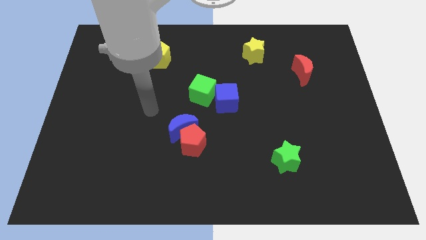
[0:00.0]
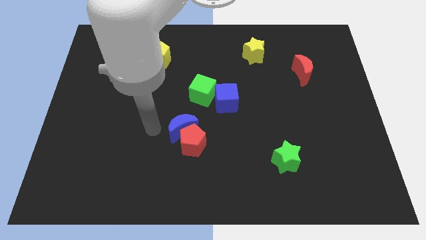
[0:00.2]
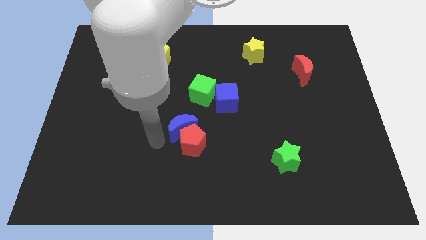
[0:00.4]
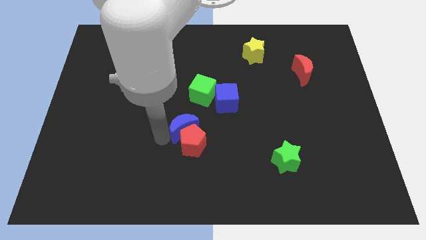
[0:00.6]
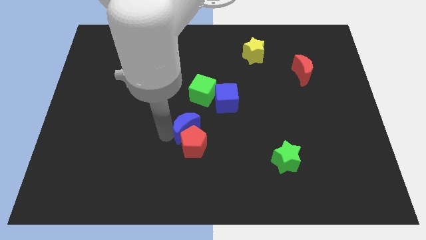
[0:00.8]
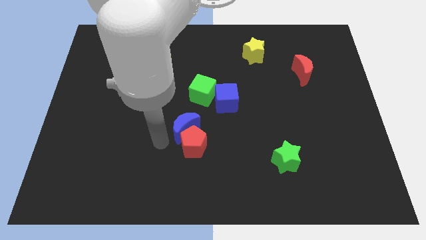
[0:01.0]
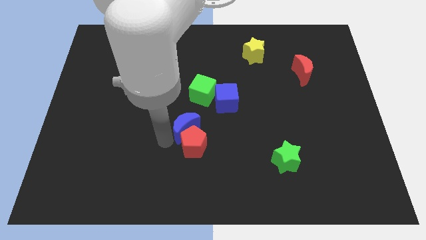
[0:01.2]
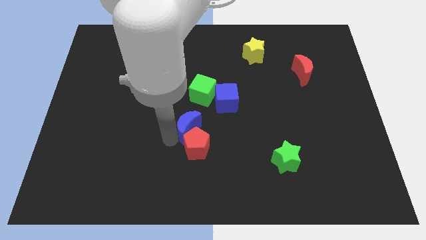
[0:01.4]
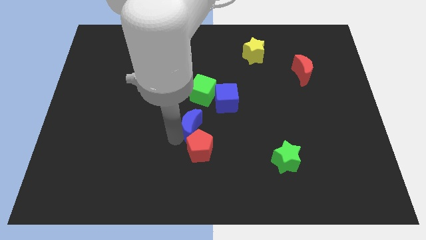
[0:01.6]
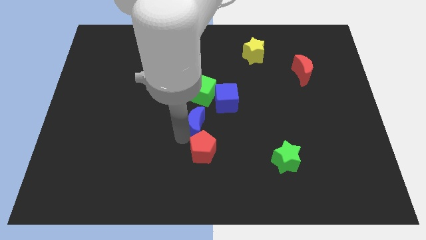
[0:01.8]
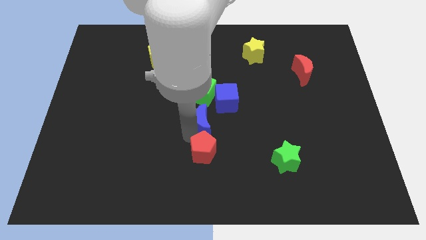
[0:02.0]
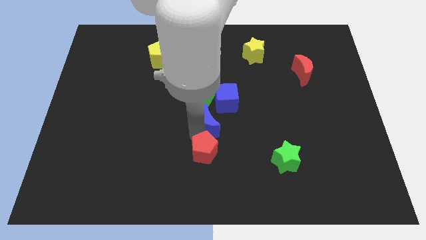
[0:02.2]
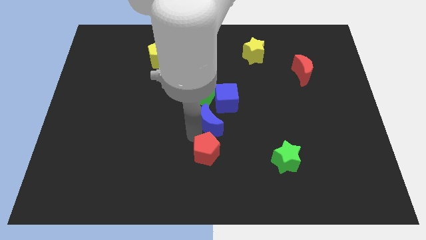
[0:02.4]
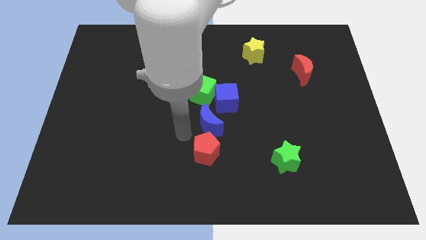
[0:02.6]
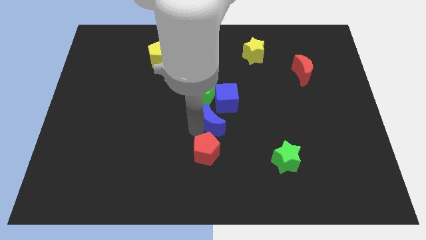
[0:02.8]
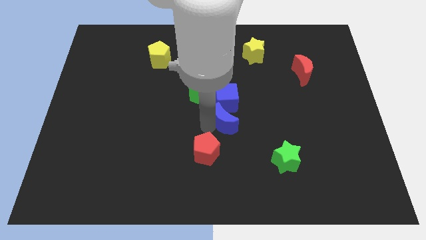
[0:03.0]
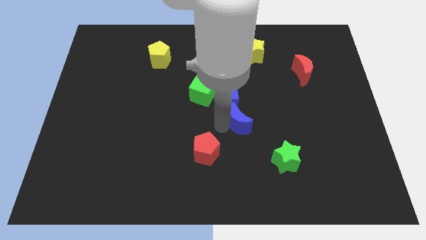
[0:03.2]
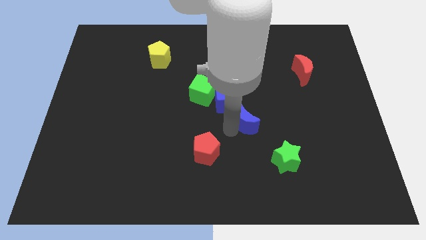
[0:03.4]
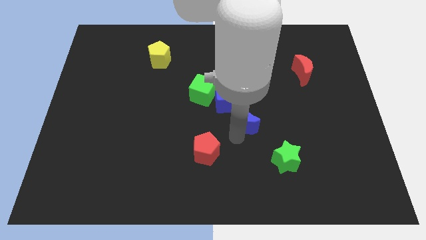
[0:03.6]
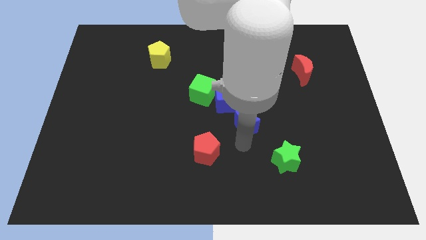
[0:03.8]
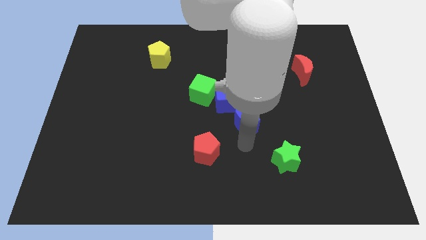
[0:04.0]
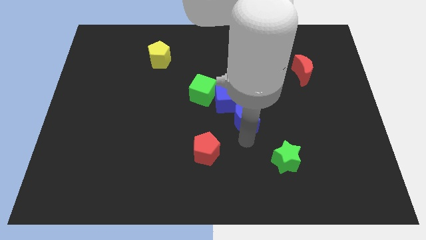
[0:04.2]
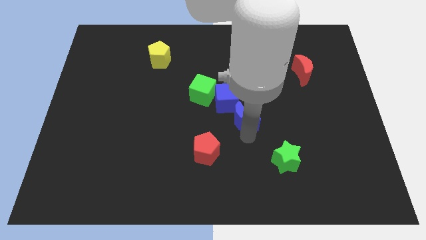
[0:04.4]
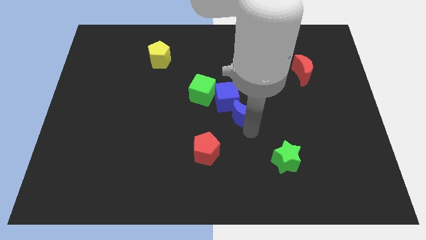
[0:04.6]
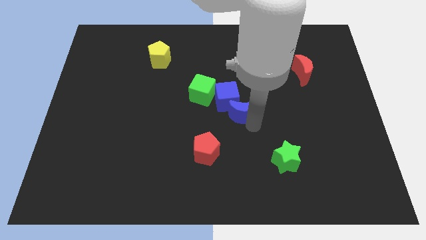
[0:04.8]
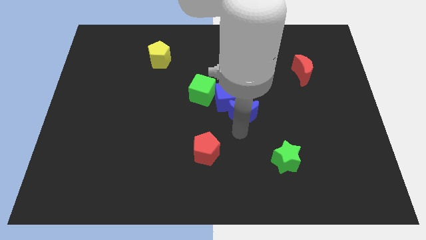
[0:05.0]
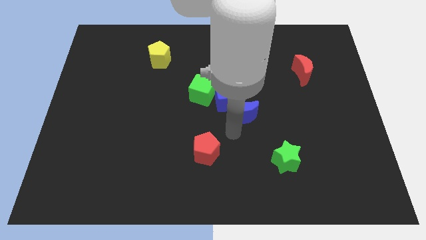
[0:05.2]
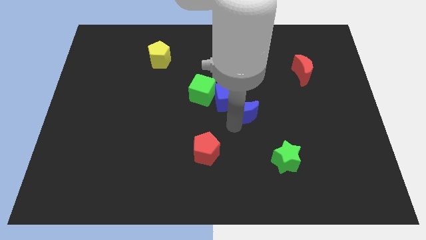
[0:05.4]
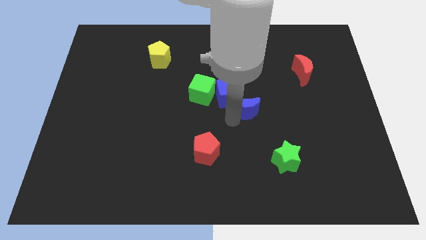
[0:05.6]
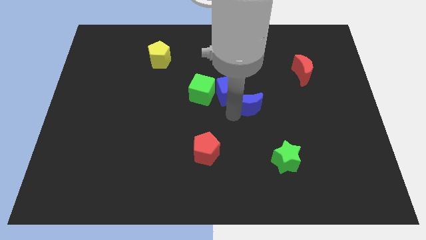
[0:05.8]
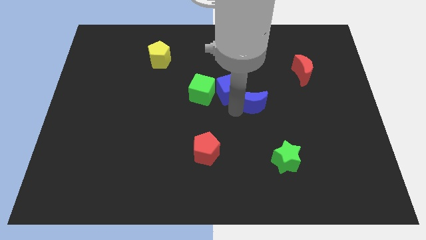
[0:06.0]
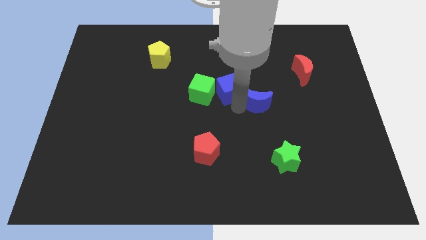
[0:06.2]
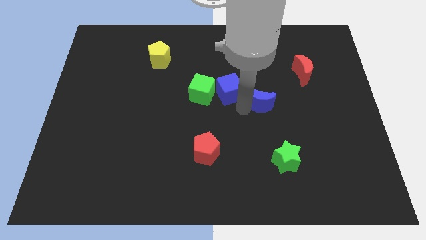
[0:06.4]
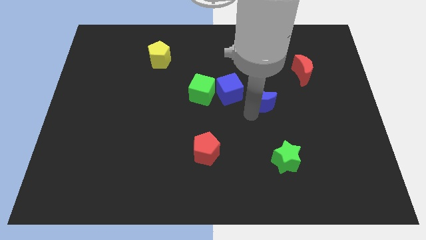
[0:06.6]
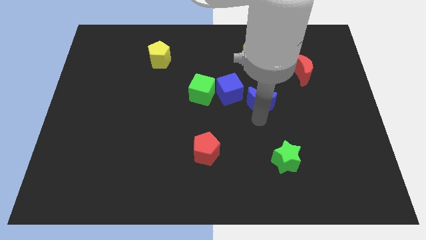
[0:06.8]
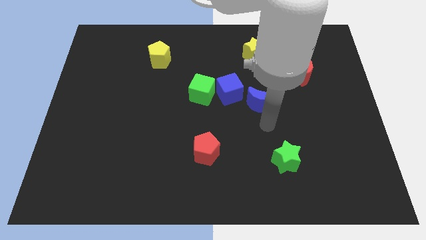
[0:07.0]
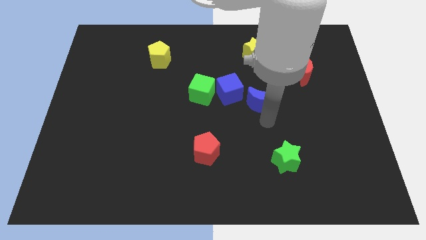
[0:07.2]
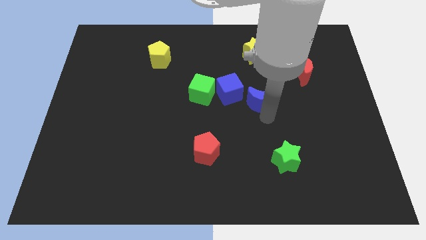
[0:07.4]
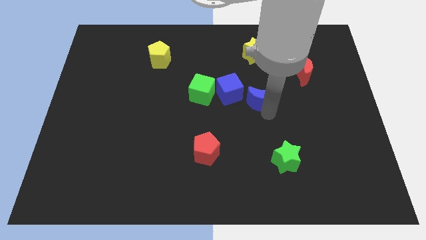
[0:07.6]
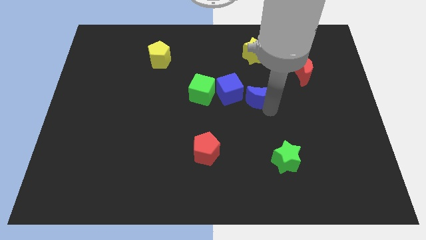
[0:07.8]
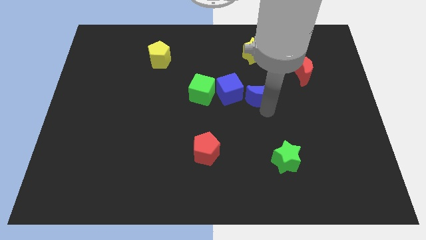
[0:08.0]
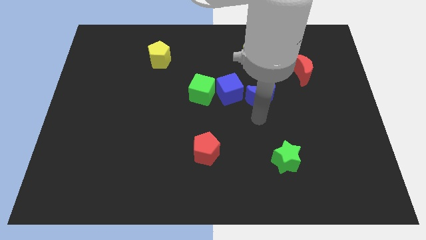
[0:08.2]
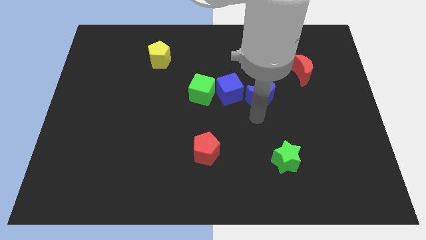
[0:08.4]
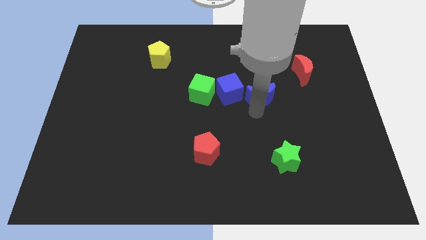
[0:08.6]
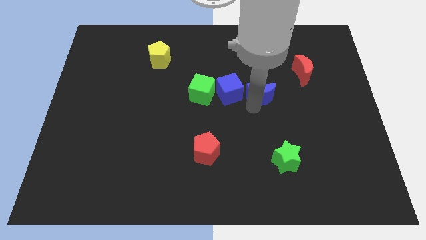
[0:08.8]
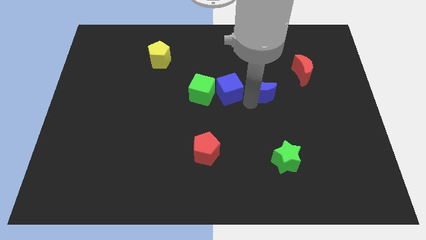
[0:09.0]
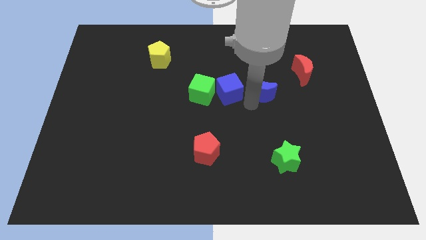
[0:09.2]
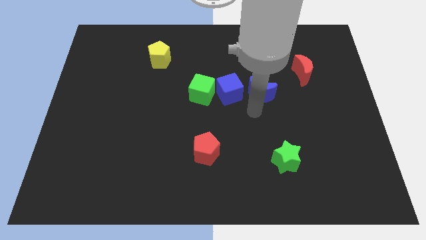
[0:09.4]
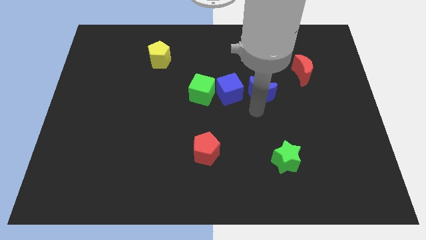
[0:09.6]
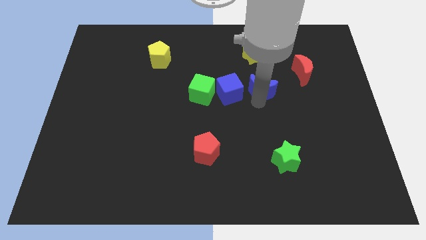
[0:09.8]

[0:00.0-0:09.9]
slide the blue moon up and then right

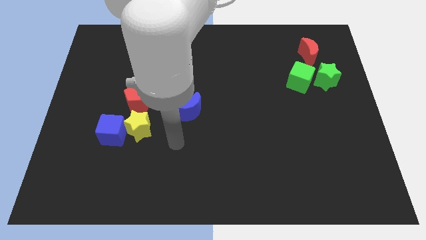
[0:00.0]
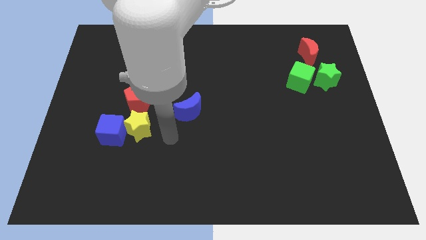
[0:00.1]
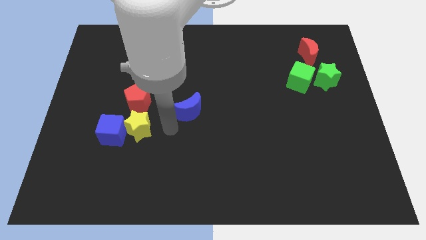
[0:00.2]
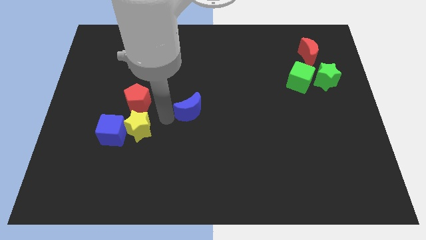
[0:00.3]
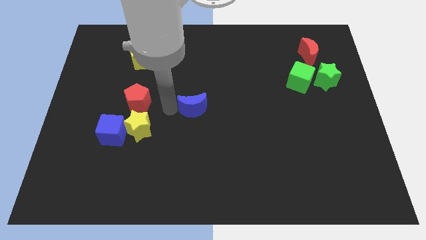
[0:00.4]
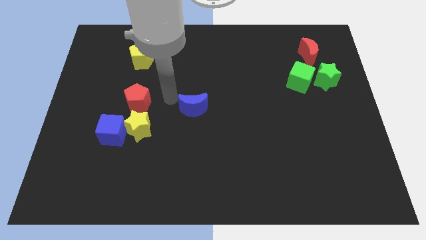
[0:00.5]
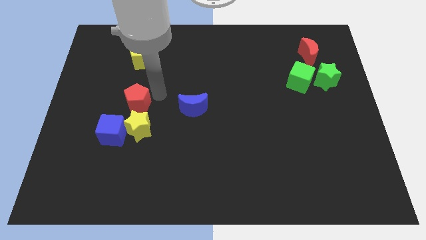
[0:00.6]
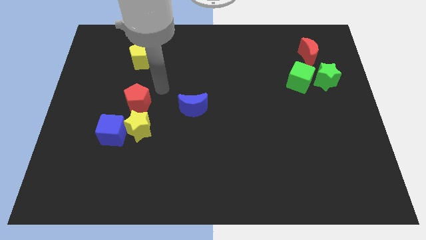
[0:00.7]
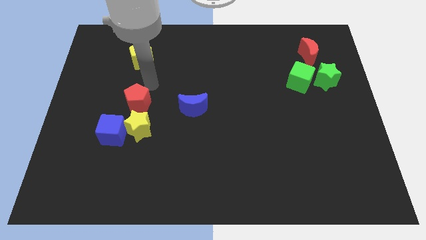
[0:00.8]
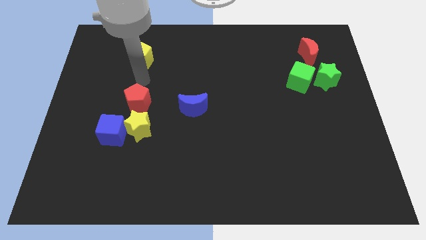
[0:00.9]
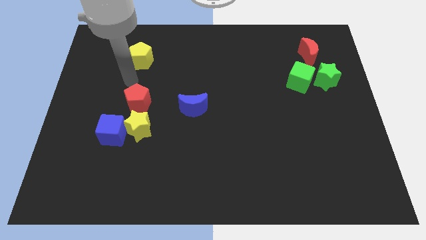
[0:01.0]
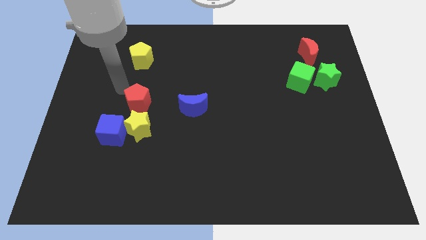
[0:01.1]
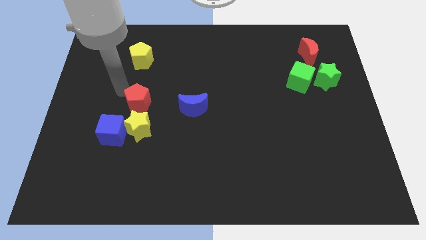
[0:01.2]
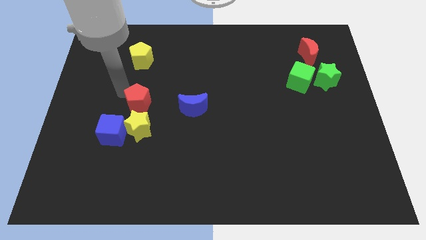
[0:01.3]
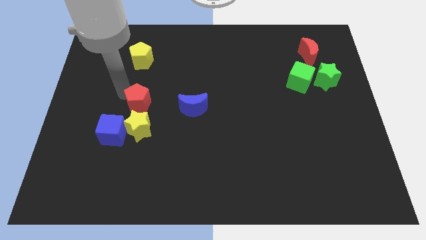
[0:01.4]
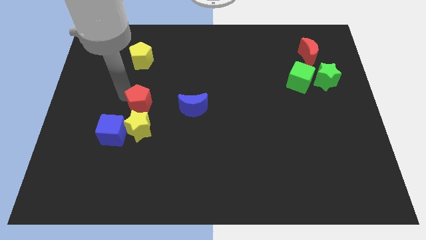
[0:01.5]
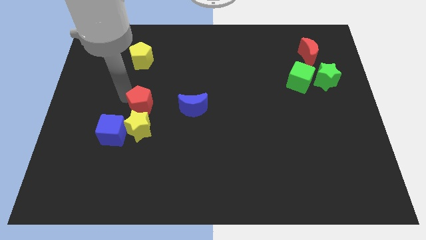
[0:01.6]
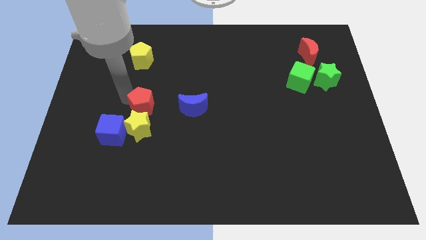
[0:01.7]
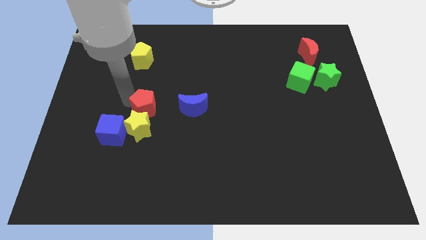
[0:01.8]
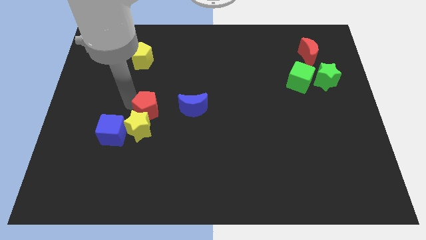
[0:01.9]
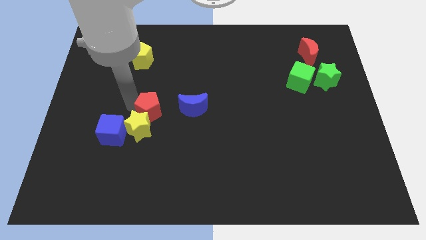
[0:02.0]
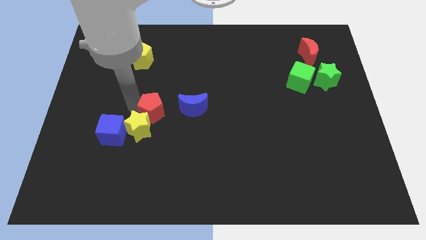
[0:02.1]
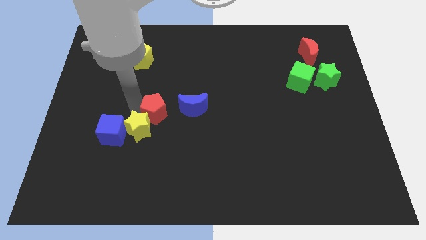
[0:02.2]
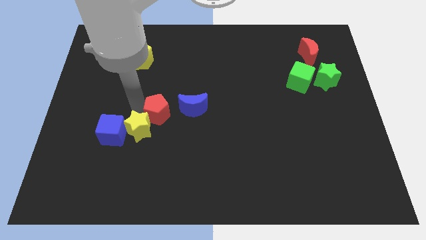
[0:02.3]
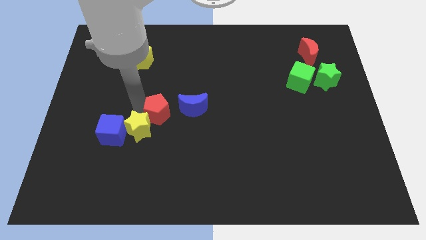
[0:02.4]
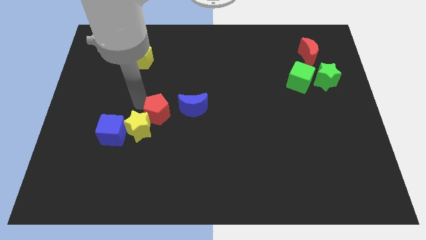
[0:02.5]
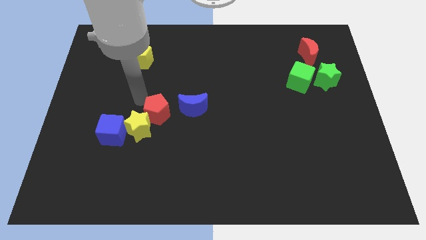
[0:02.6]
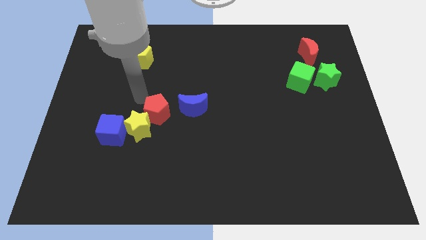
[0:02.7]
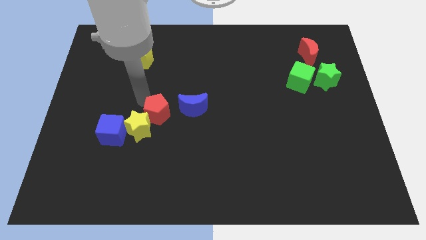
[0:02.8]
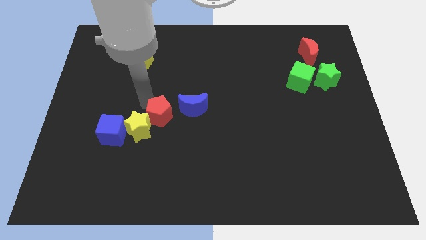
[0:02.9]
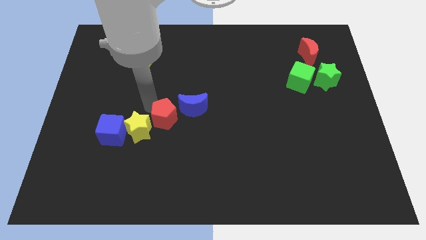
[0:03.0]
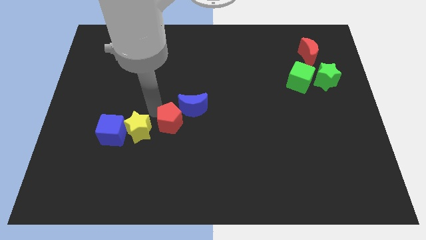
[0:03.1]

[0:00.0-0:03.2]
slide the red pentagon a bit right
